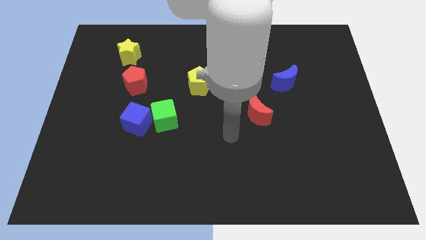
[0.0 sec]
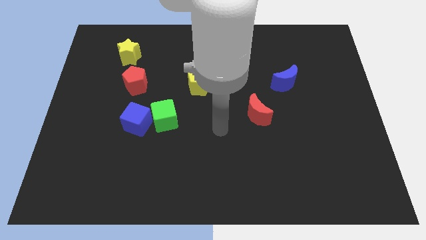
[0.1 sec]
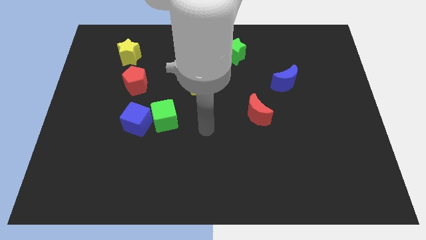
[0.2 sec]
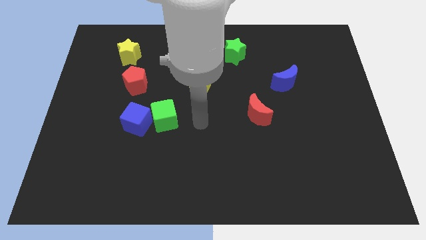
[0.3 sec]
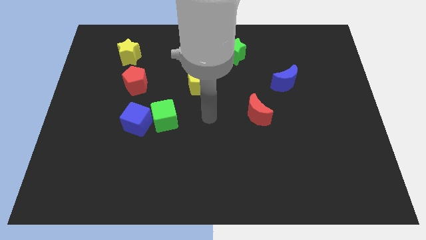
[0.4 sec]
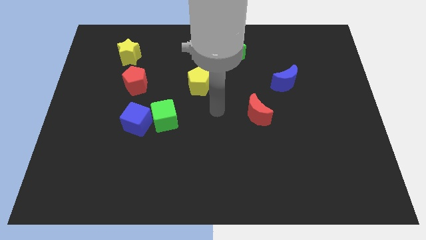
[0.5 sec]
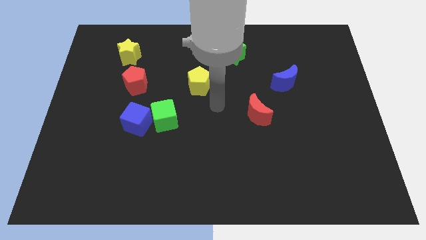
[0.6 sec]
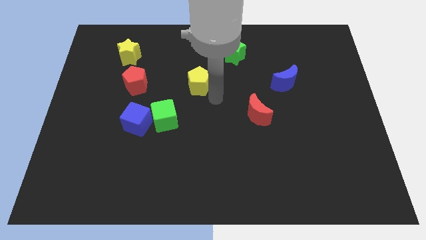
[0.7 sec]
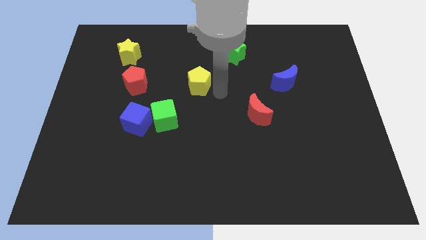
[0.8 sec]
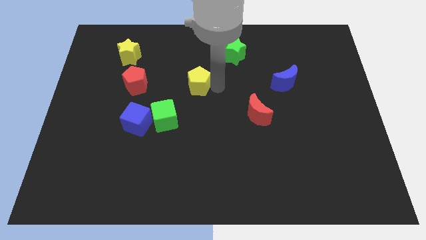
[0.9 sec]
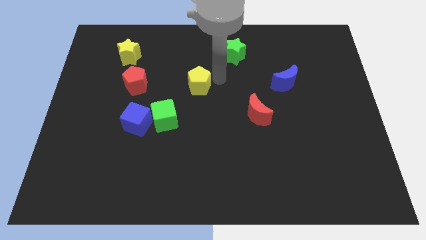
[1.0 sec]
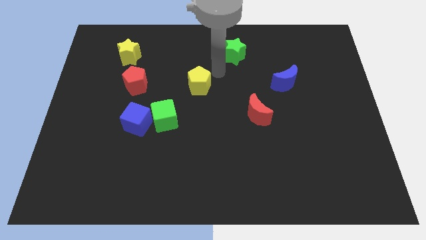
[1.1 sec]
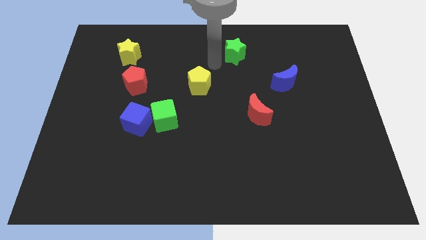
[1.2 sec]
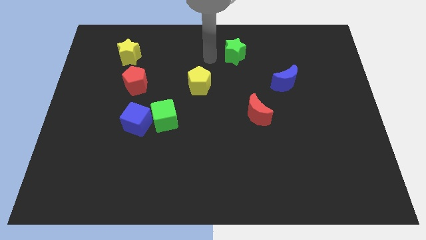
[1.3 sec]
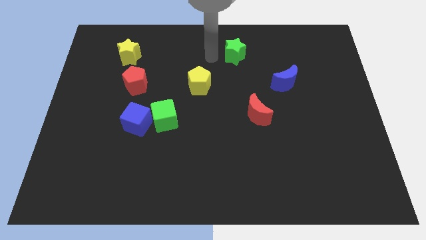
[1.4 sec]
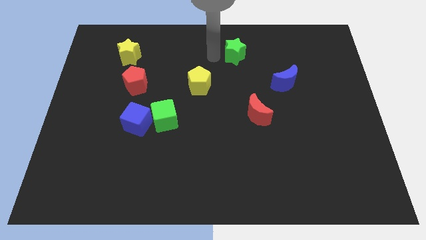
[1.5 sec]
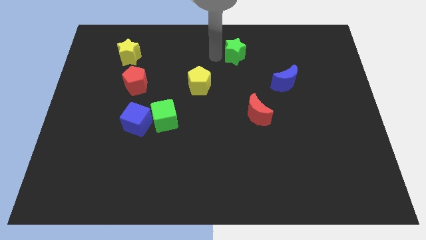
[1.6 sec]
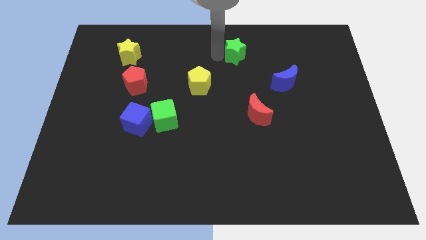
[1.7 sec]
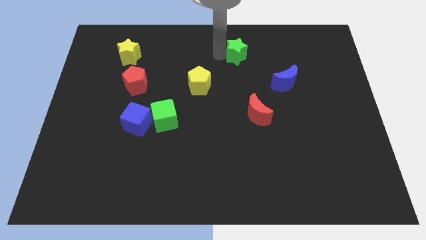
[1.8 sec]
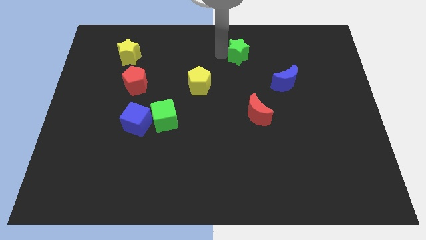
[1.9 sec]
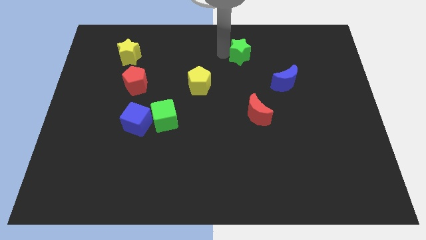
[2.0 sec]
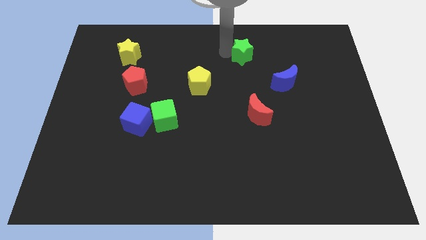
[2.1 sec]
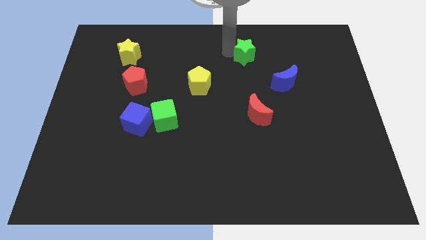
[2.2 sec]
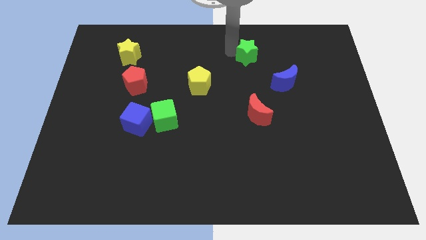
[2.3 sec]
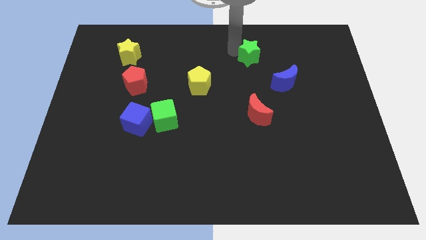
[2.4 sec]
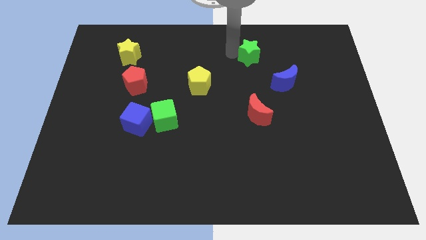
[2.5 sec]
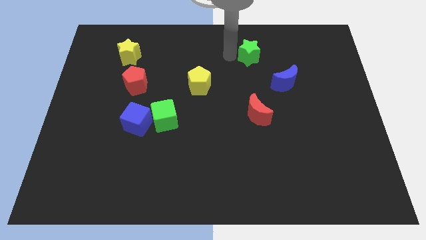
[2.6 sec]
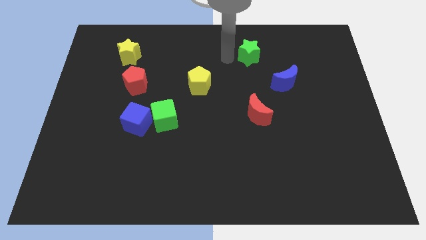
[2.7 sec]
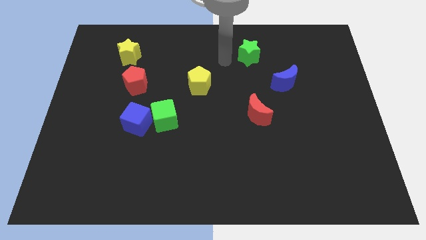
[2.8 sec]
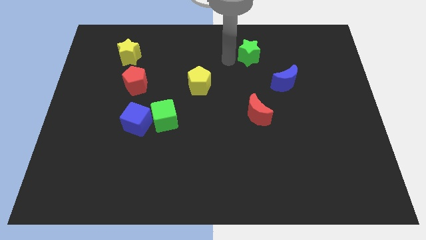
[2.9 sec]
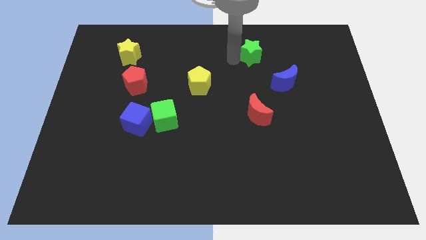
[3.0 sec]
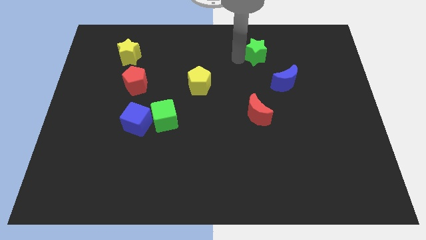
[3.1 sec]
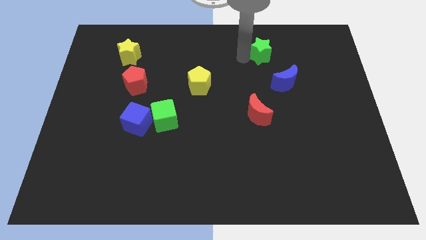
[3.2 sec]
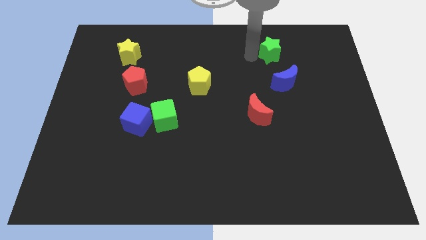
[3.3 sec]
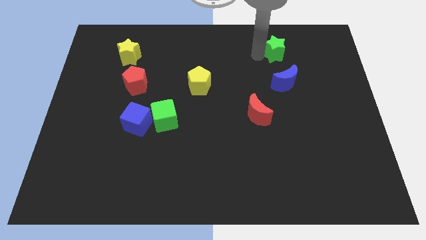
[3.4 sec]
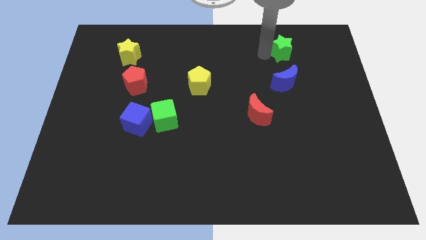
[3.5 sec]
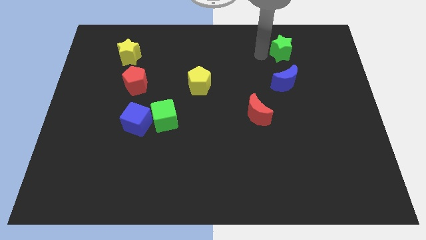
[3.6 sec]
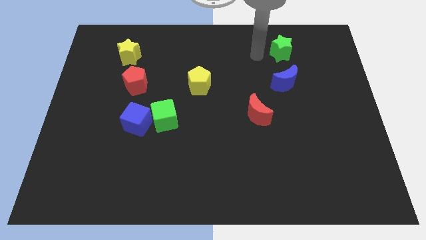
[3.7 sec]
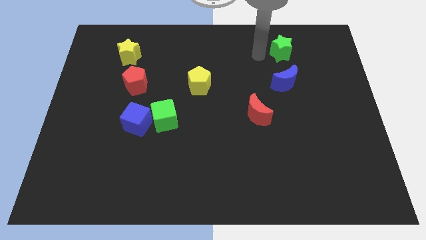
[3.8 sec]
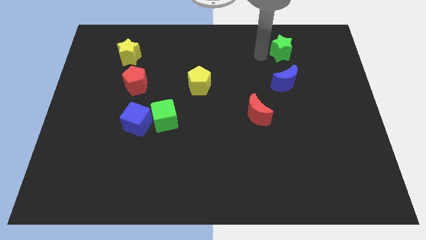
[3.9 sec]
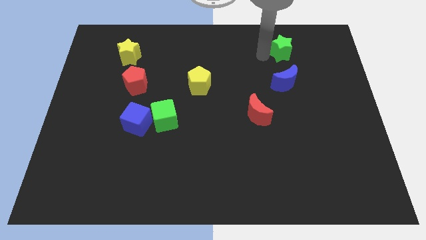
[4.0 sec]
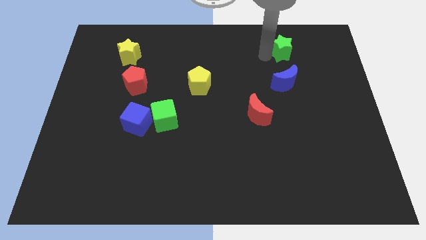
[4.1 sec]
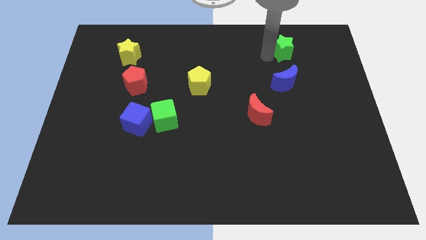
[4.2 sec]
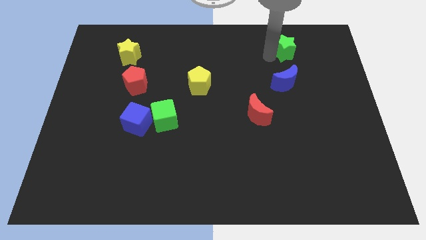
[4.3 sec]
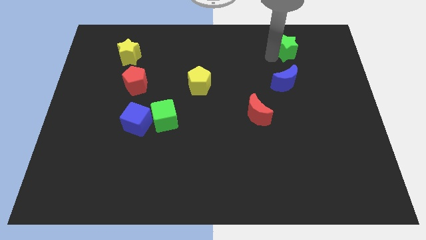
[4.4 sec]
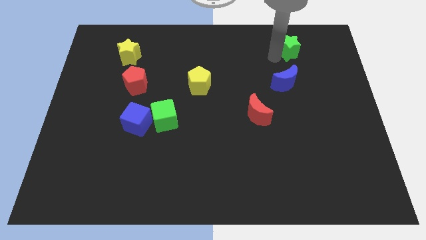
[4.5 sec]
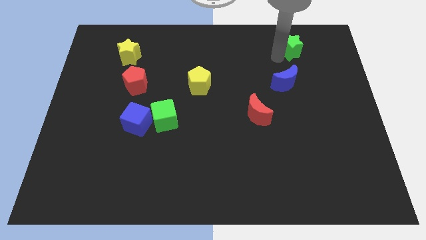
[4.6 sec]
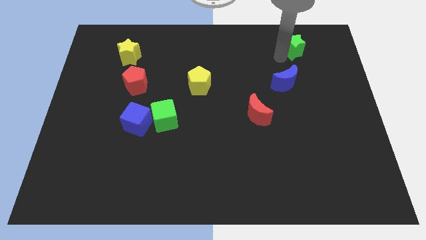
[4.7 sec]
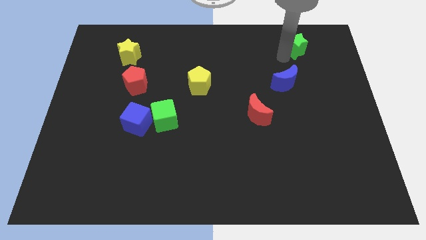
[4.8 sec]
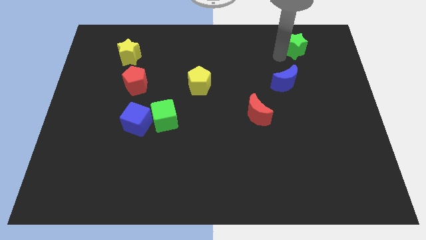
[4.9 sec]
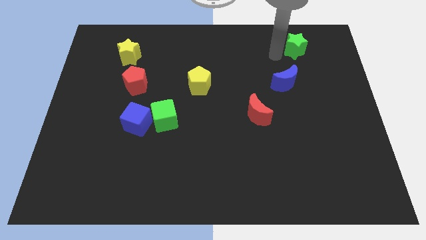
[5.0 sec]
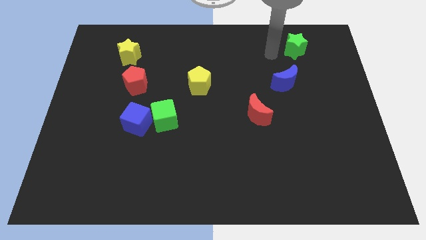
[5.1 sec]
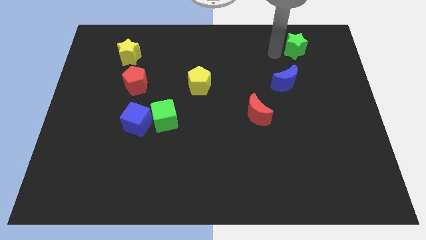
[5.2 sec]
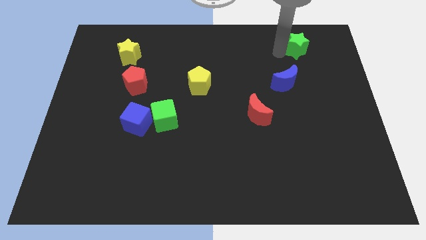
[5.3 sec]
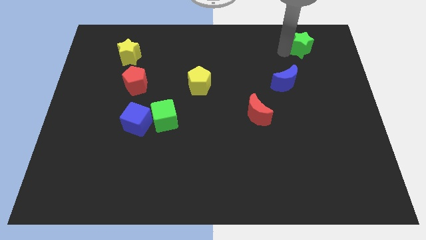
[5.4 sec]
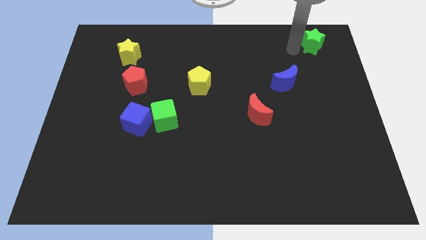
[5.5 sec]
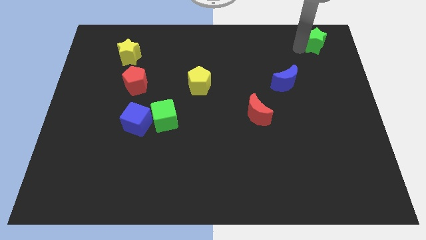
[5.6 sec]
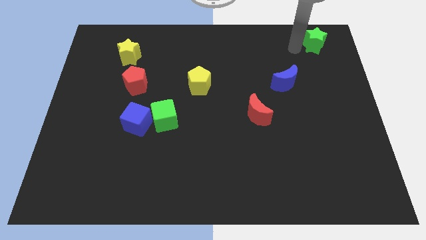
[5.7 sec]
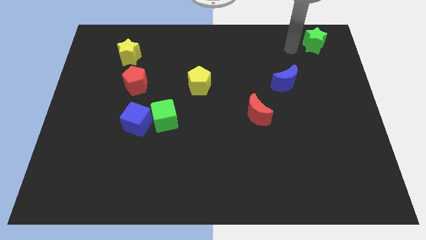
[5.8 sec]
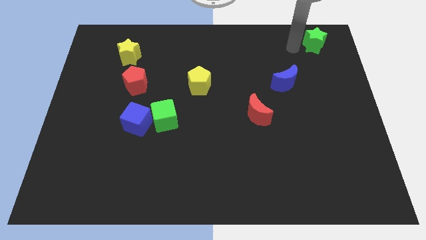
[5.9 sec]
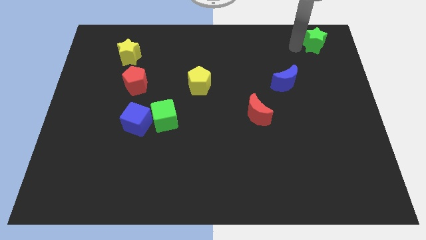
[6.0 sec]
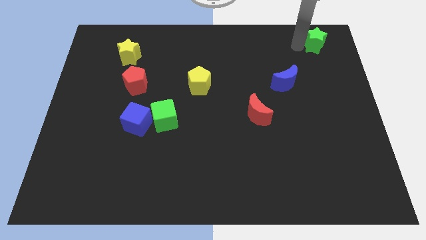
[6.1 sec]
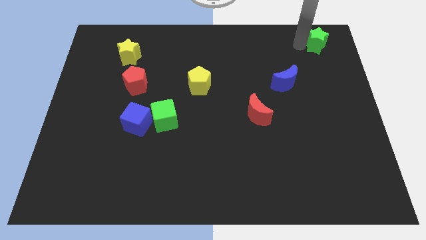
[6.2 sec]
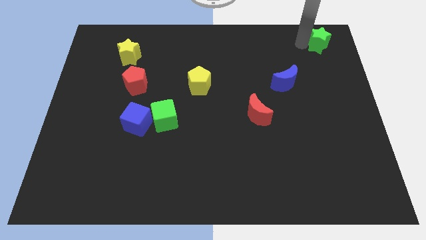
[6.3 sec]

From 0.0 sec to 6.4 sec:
put the green star to the top right corner

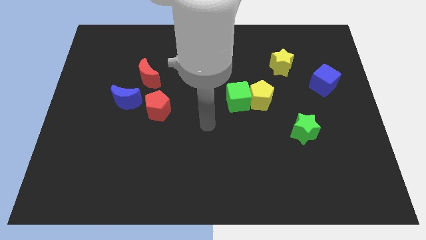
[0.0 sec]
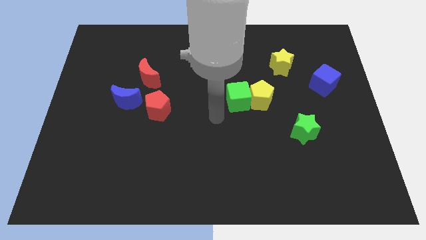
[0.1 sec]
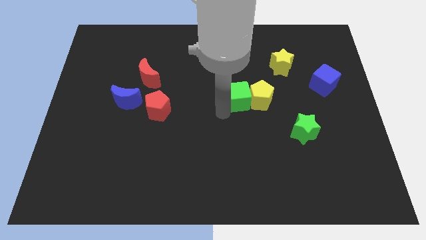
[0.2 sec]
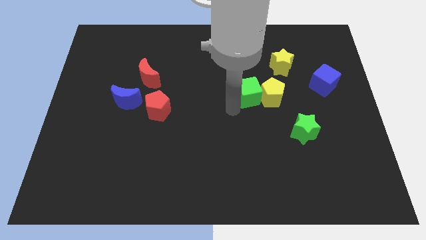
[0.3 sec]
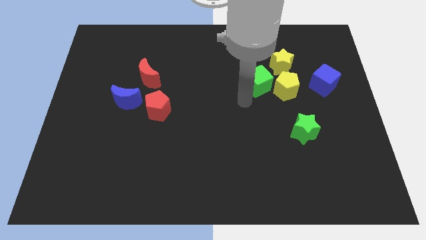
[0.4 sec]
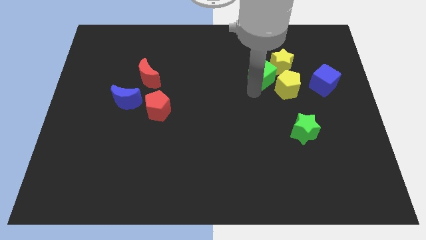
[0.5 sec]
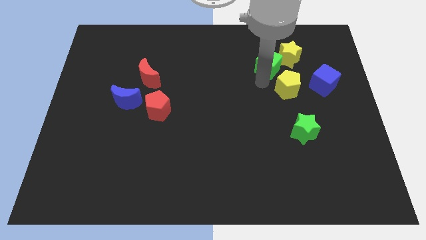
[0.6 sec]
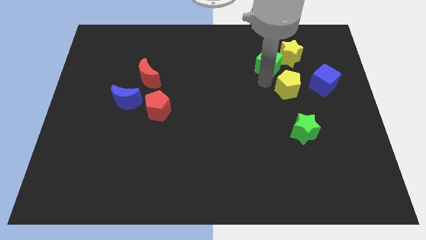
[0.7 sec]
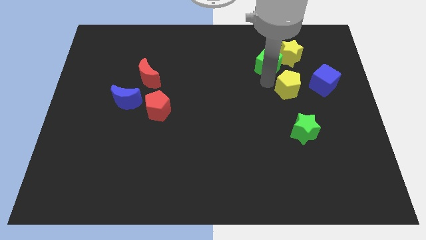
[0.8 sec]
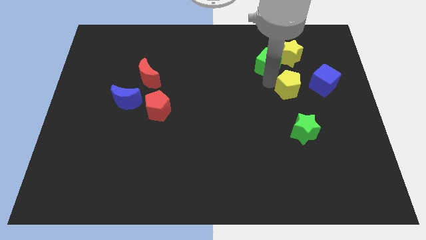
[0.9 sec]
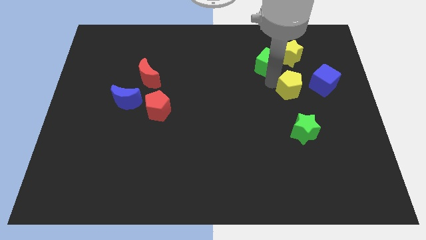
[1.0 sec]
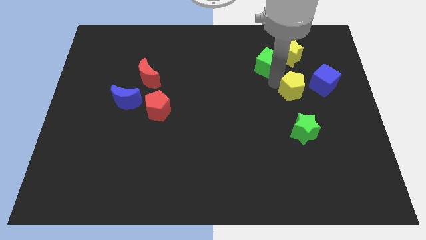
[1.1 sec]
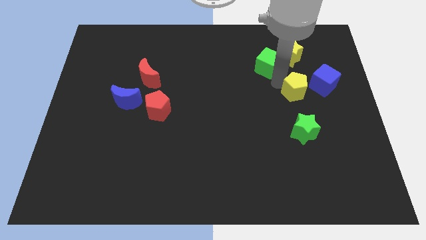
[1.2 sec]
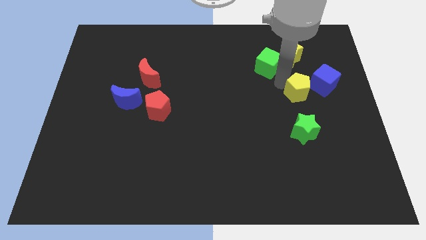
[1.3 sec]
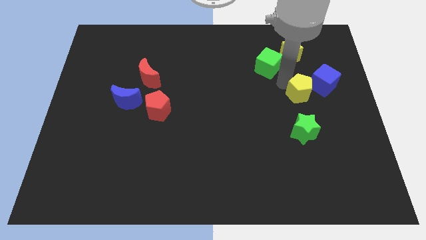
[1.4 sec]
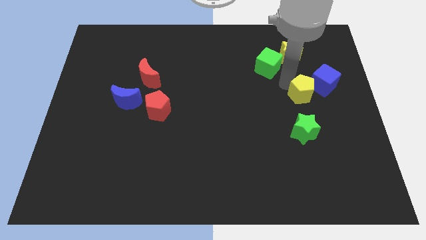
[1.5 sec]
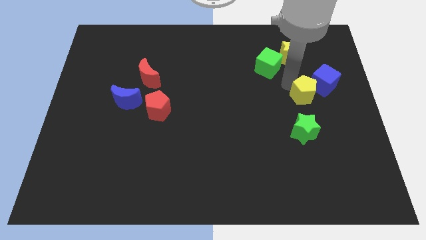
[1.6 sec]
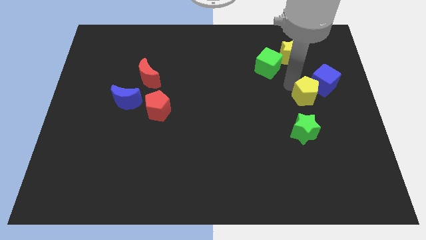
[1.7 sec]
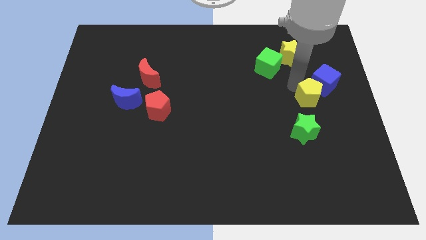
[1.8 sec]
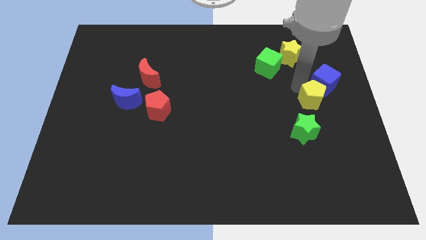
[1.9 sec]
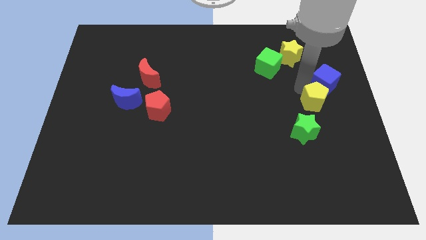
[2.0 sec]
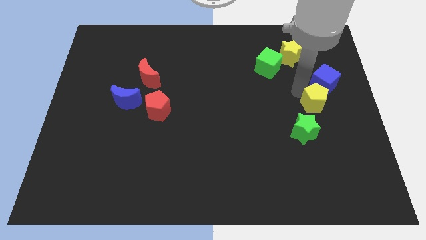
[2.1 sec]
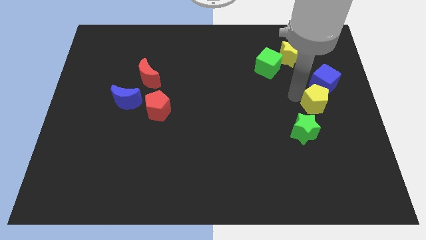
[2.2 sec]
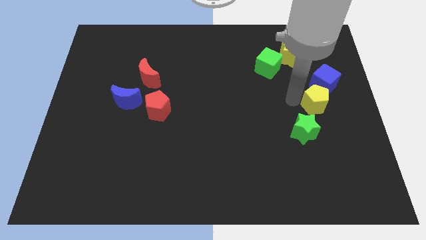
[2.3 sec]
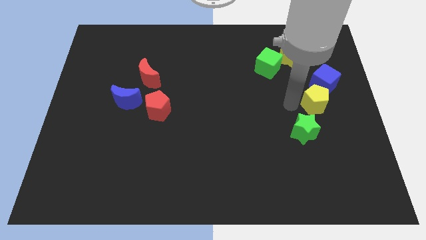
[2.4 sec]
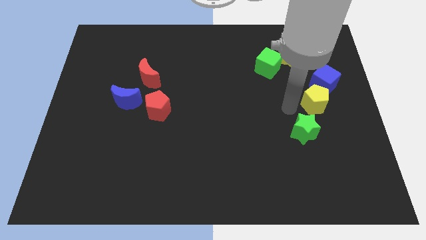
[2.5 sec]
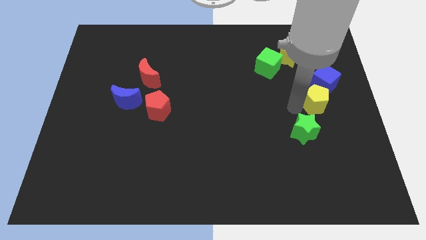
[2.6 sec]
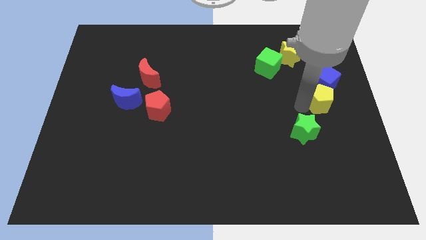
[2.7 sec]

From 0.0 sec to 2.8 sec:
put the yellow pentagon to the right side
